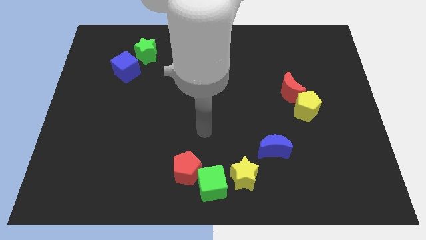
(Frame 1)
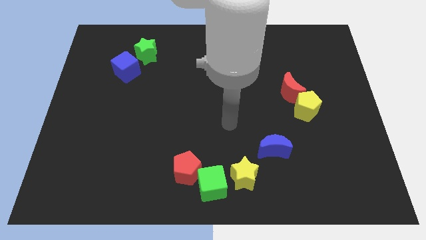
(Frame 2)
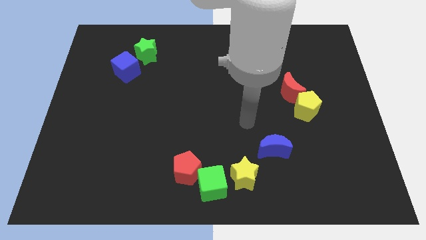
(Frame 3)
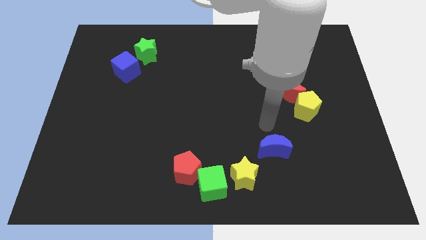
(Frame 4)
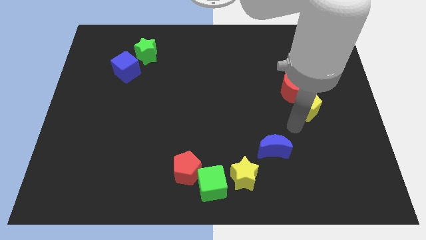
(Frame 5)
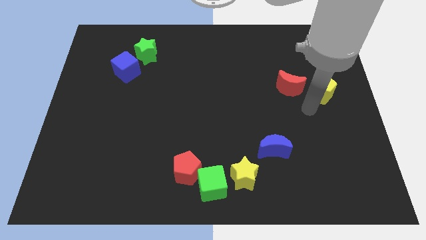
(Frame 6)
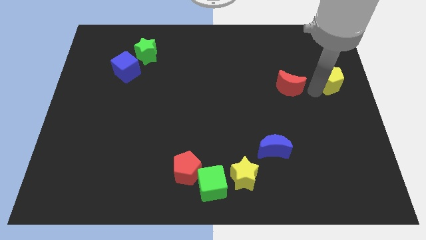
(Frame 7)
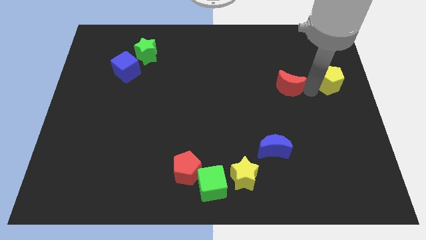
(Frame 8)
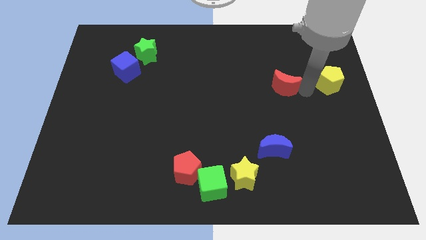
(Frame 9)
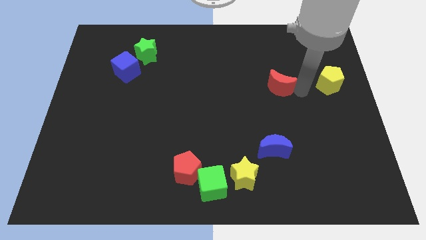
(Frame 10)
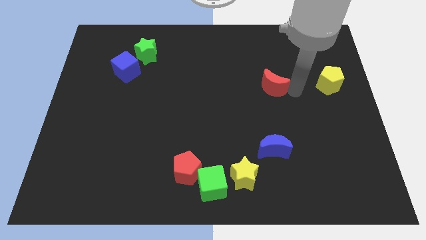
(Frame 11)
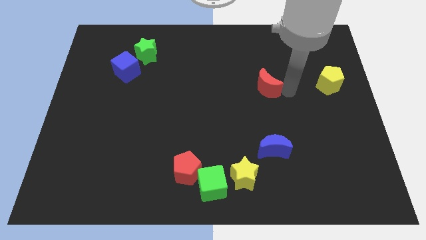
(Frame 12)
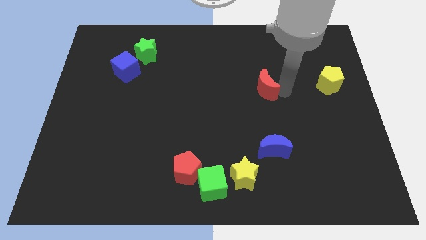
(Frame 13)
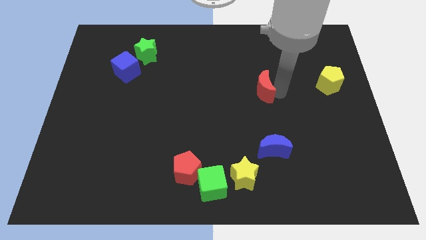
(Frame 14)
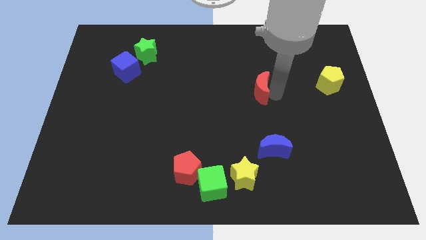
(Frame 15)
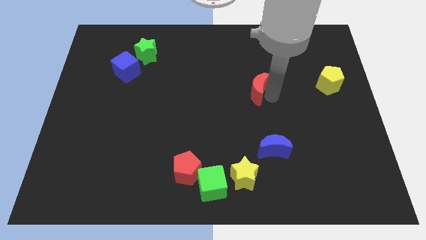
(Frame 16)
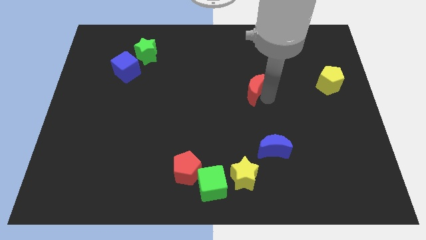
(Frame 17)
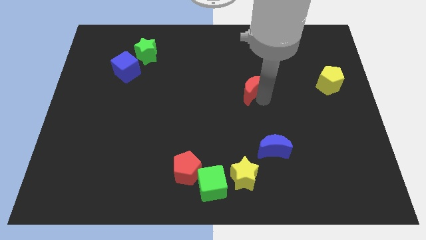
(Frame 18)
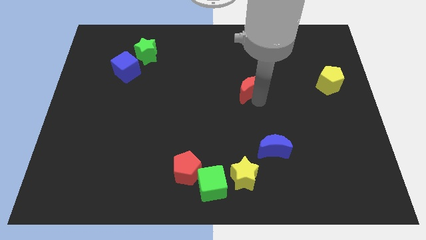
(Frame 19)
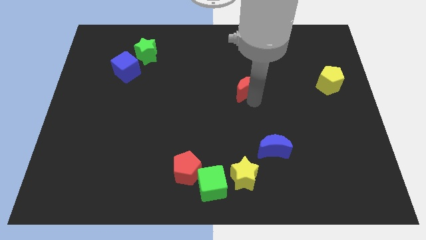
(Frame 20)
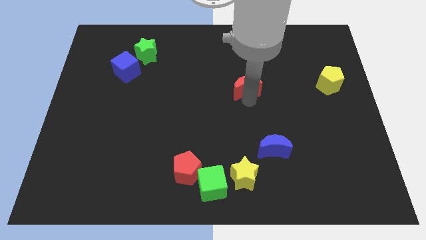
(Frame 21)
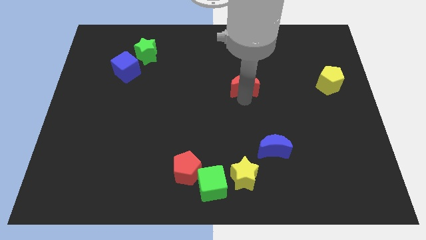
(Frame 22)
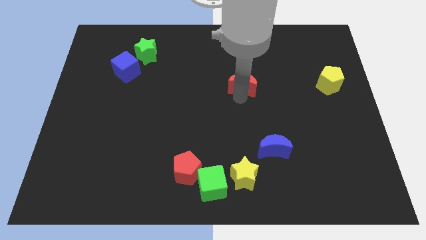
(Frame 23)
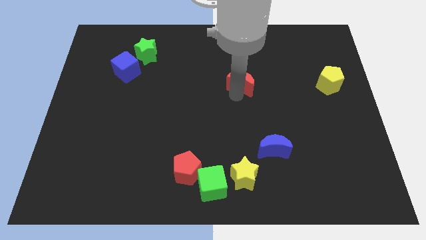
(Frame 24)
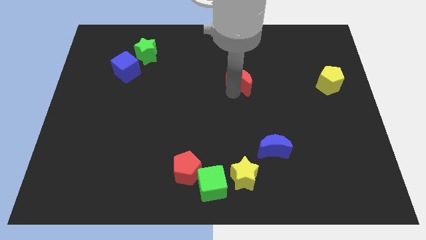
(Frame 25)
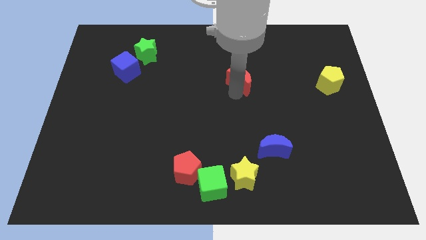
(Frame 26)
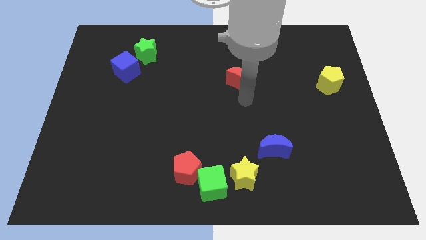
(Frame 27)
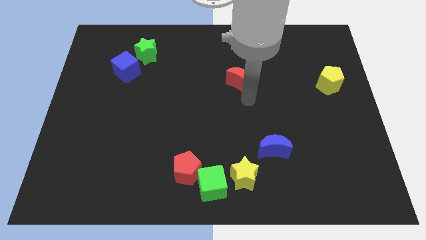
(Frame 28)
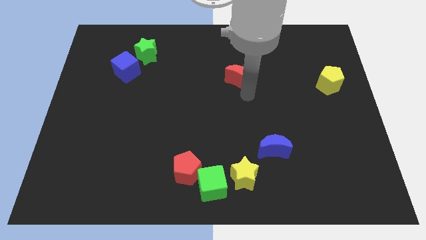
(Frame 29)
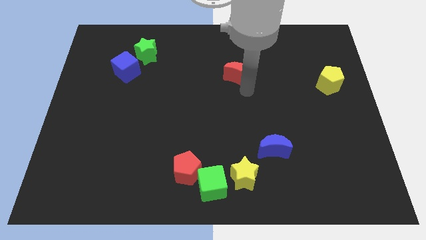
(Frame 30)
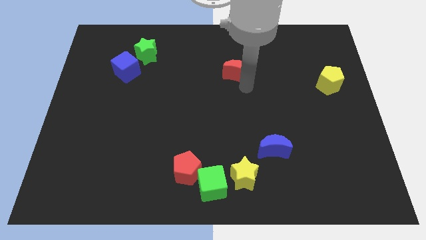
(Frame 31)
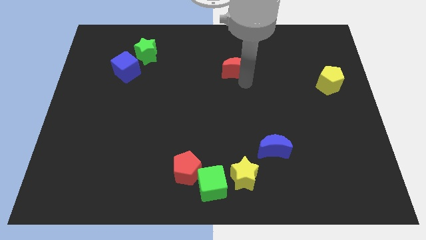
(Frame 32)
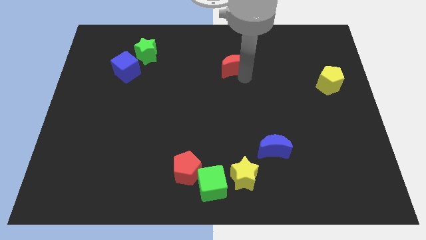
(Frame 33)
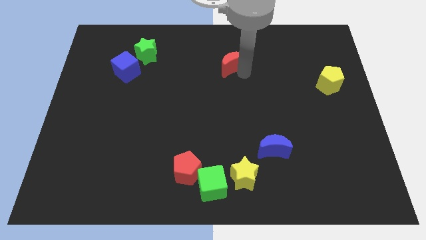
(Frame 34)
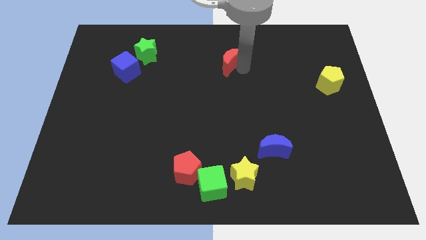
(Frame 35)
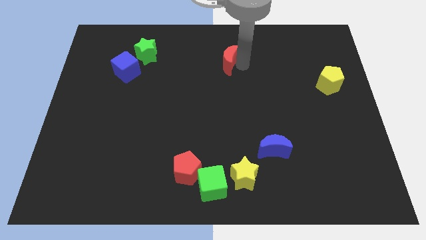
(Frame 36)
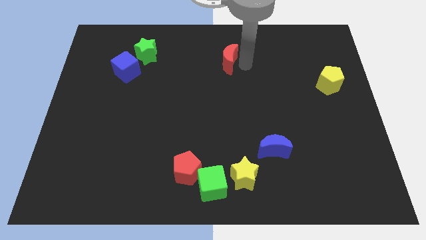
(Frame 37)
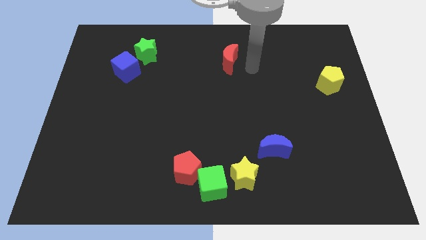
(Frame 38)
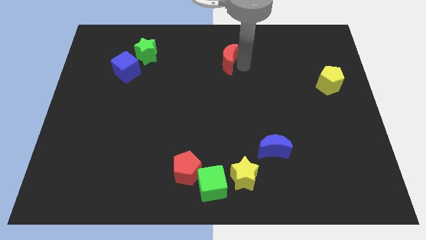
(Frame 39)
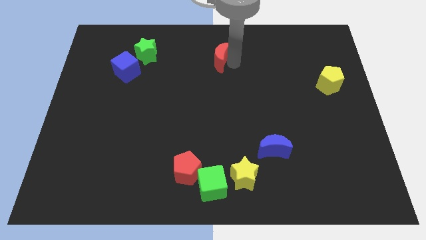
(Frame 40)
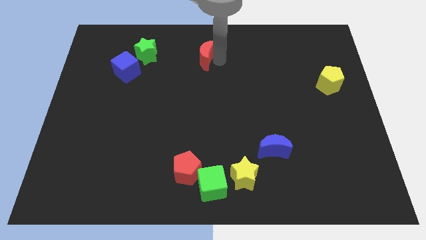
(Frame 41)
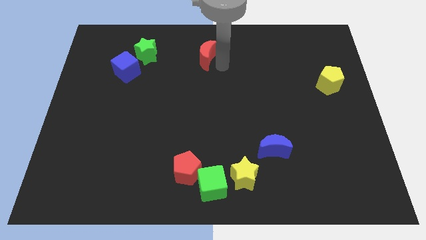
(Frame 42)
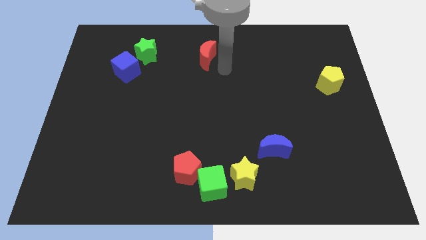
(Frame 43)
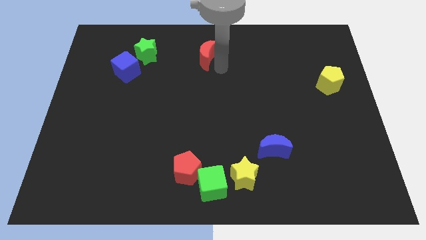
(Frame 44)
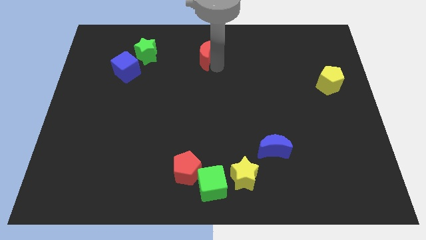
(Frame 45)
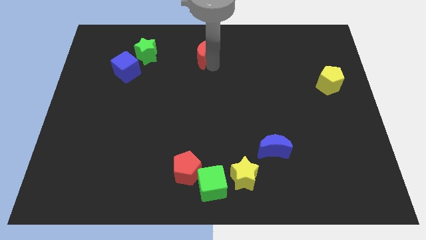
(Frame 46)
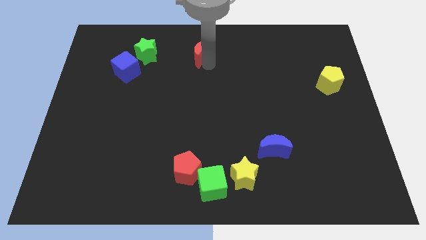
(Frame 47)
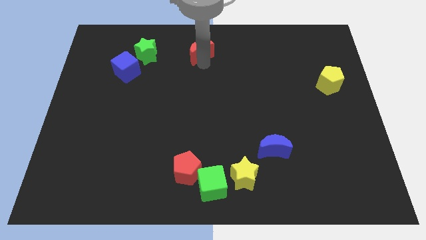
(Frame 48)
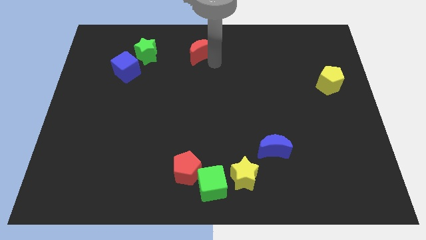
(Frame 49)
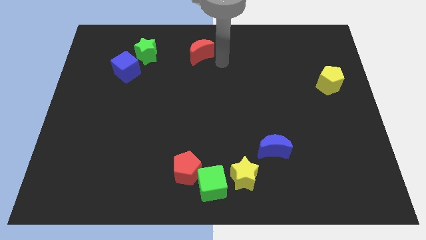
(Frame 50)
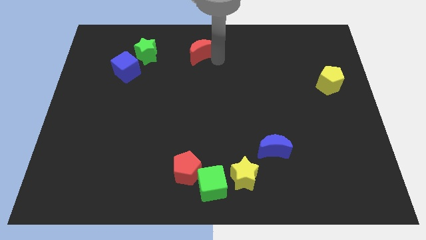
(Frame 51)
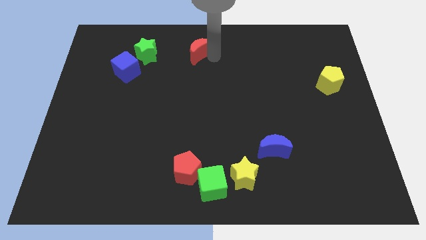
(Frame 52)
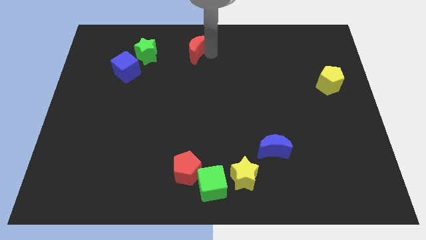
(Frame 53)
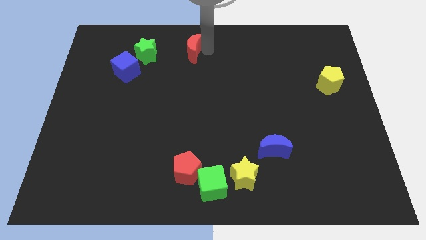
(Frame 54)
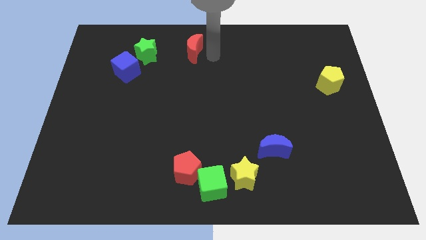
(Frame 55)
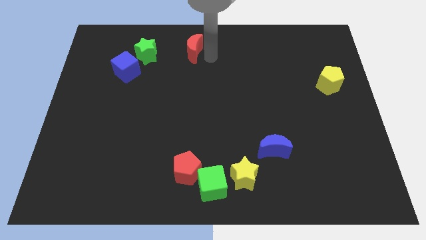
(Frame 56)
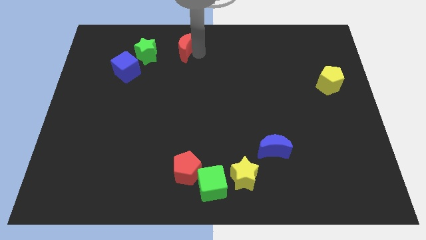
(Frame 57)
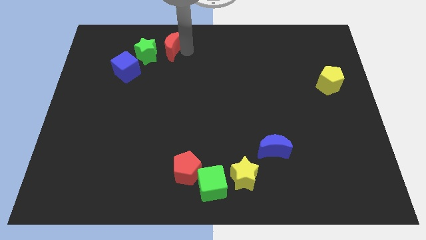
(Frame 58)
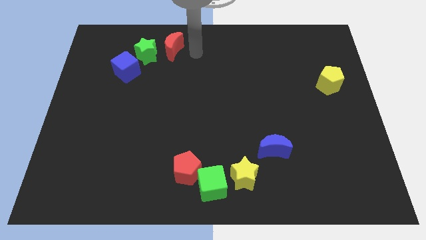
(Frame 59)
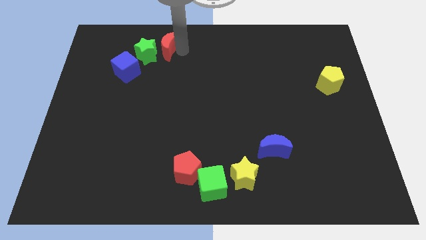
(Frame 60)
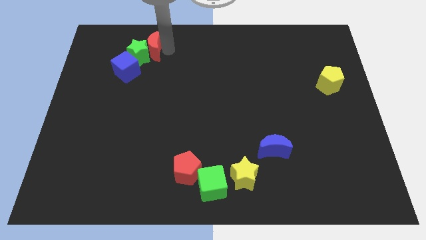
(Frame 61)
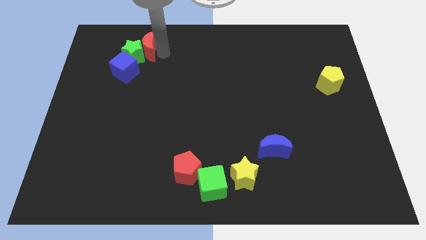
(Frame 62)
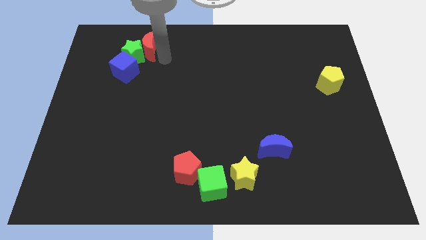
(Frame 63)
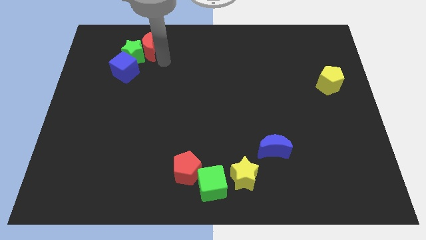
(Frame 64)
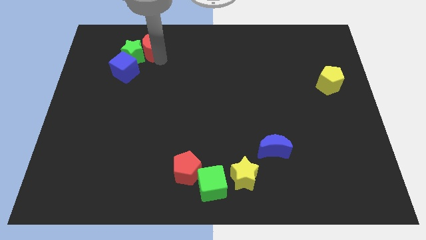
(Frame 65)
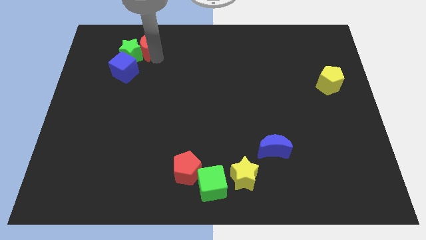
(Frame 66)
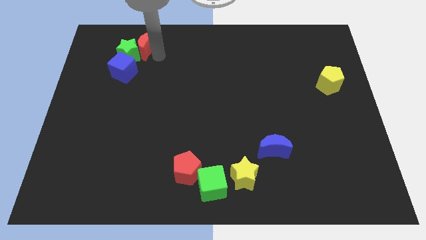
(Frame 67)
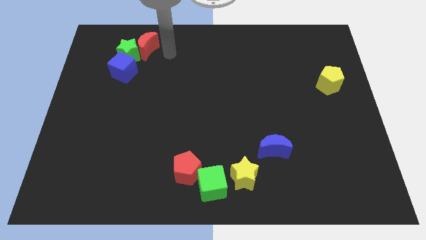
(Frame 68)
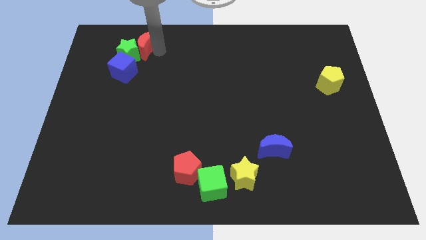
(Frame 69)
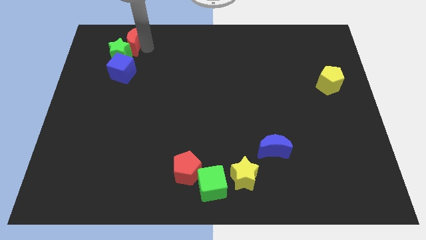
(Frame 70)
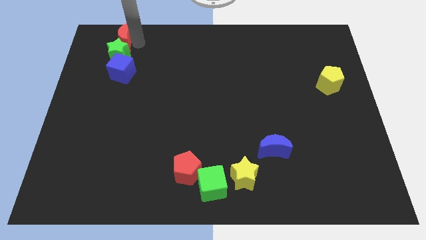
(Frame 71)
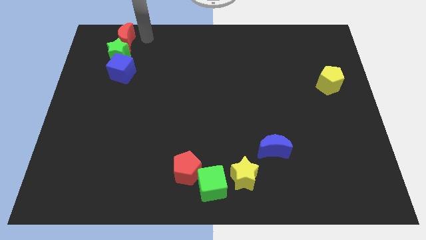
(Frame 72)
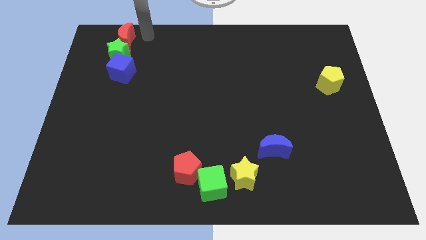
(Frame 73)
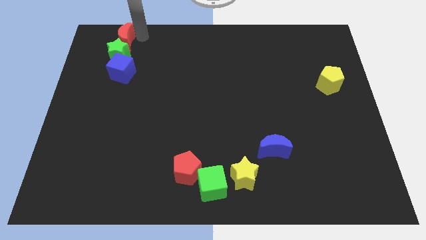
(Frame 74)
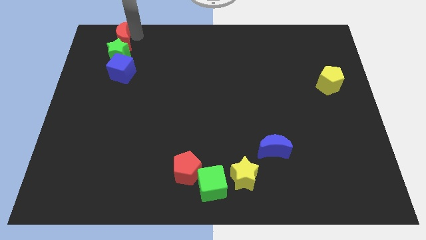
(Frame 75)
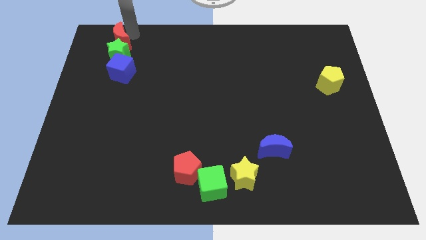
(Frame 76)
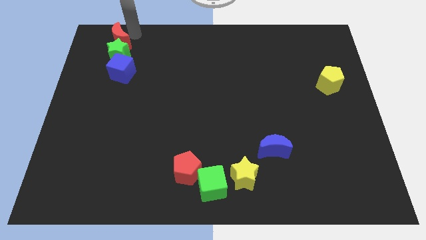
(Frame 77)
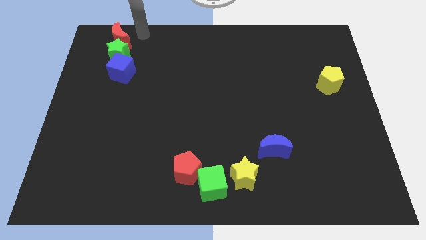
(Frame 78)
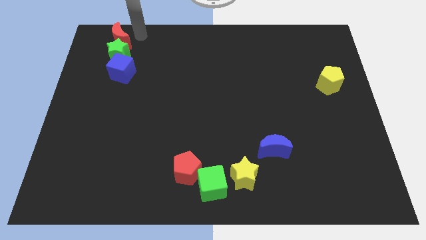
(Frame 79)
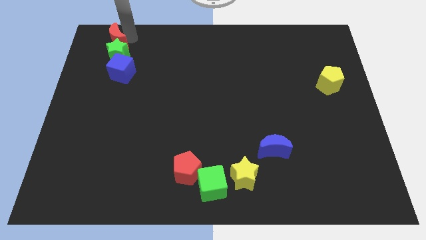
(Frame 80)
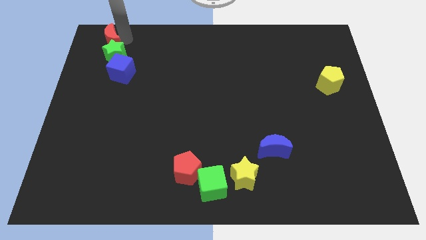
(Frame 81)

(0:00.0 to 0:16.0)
slide the red moon to the upper left corner
